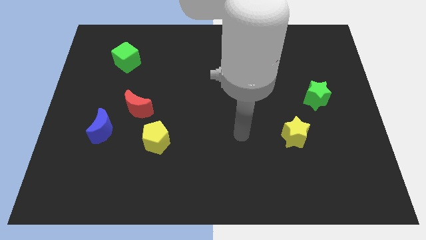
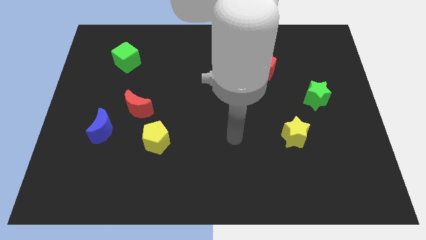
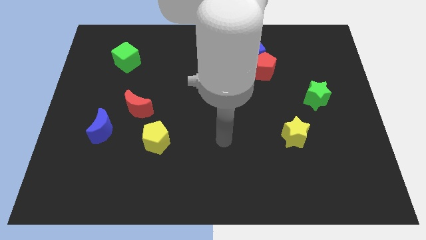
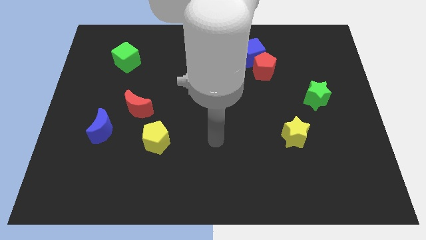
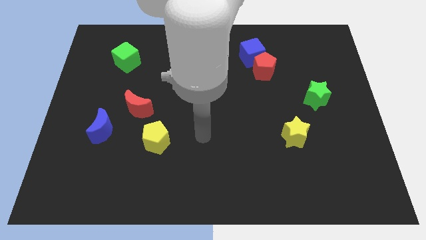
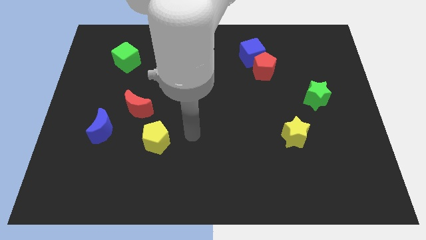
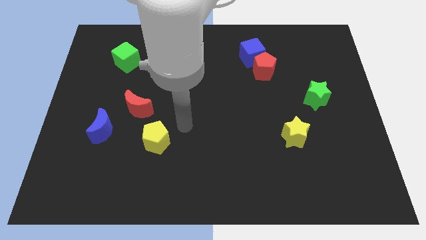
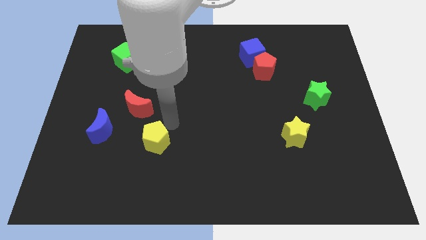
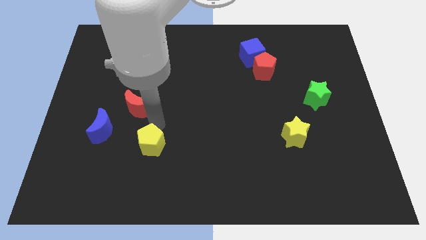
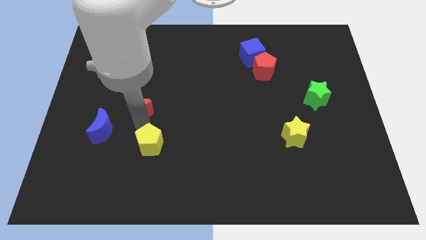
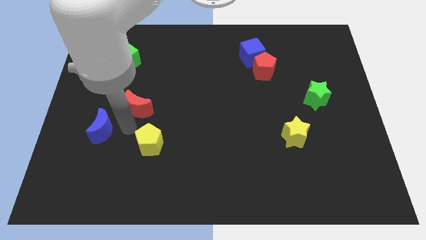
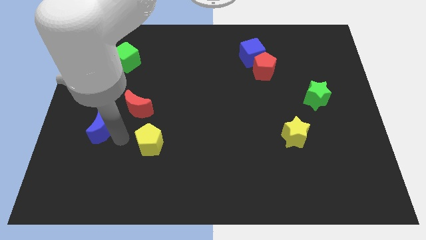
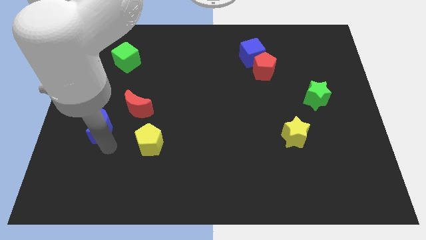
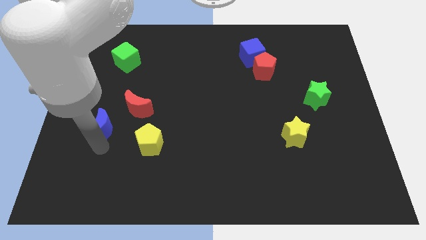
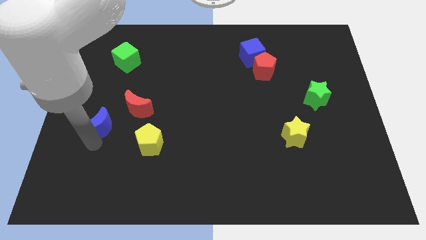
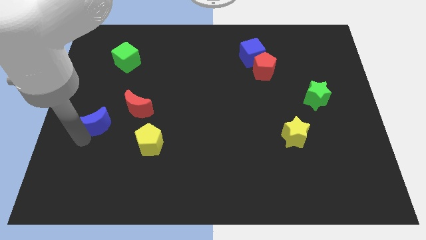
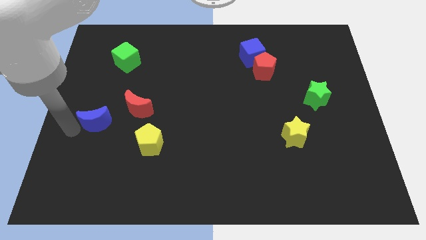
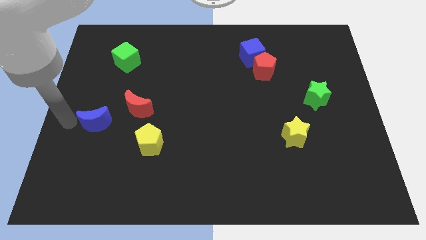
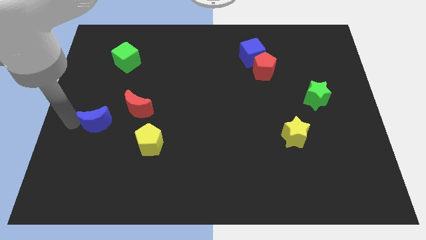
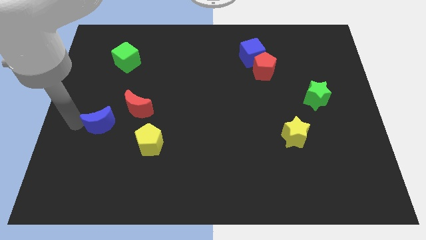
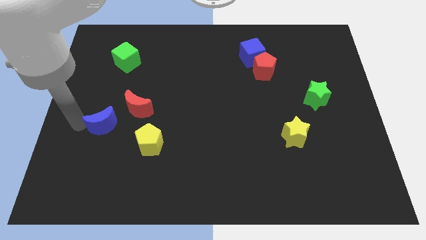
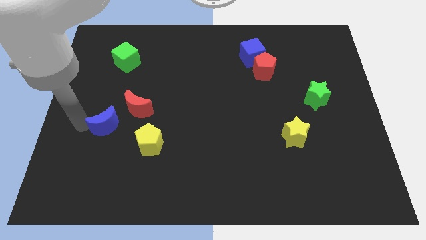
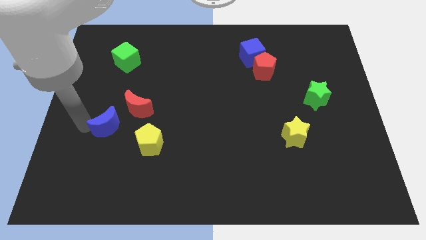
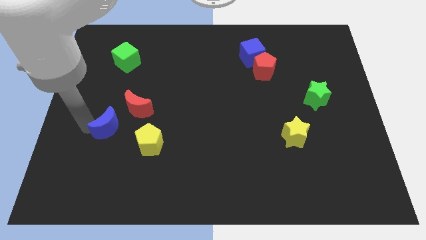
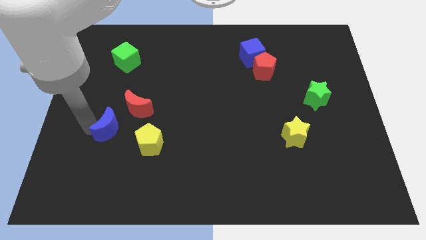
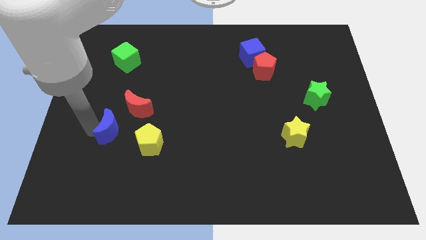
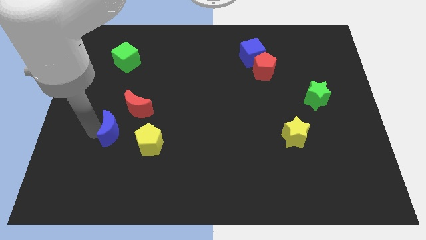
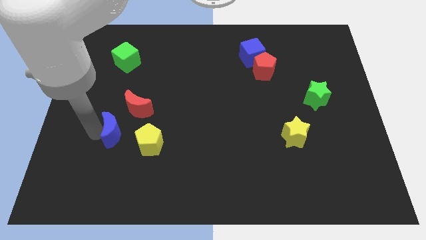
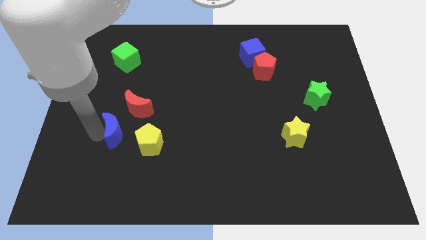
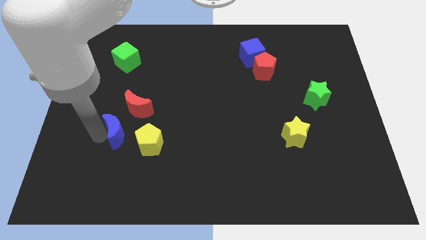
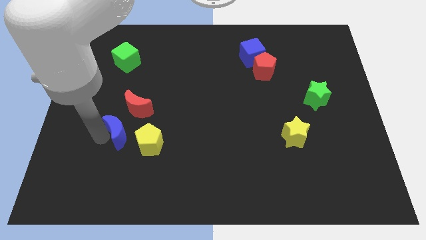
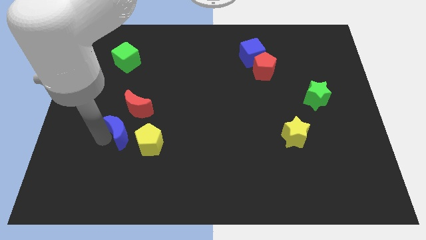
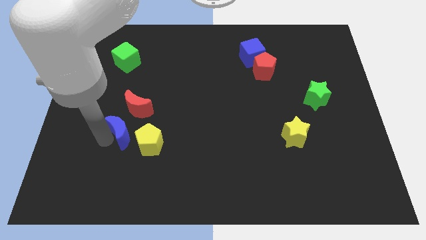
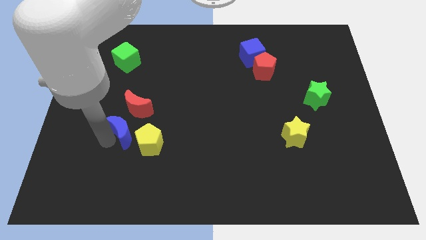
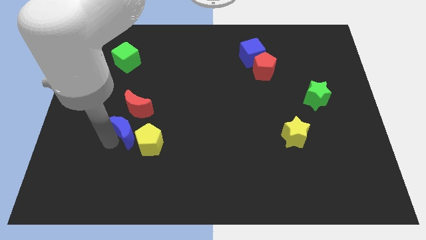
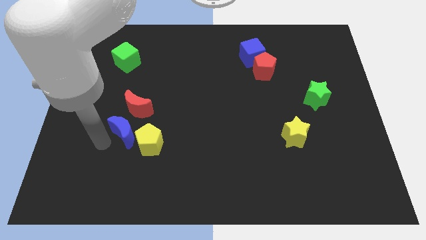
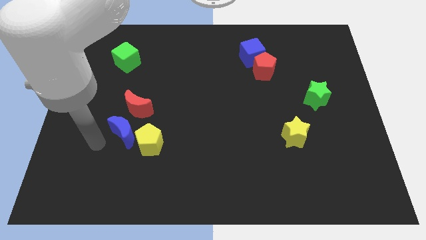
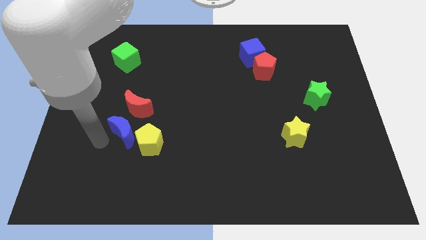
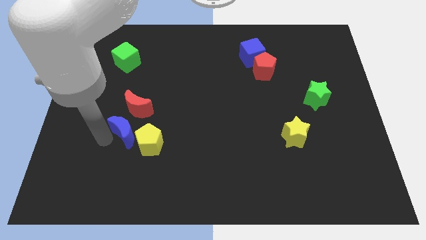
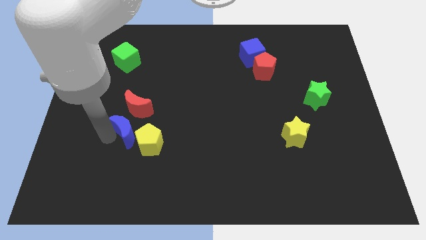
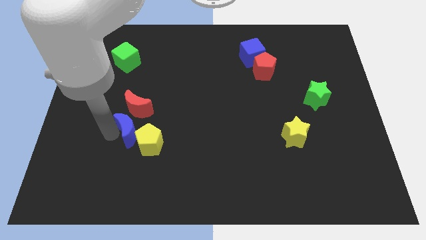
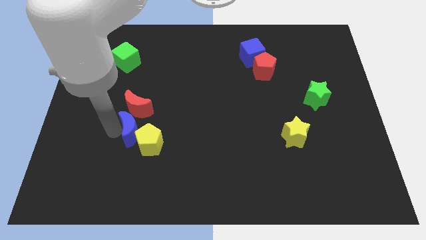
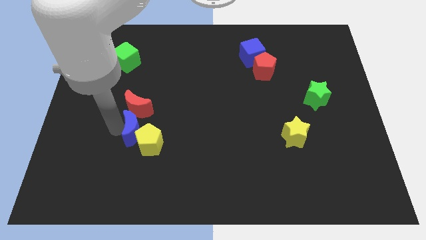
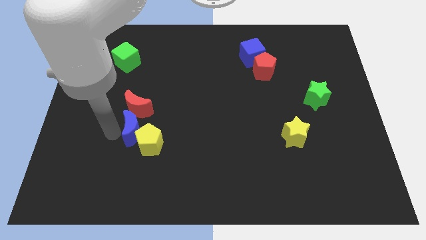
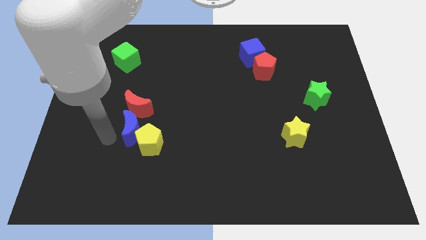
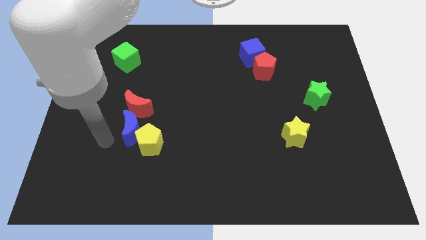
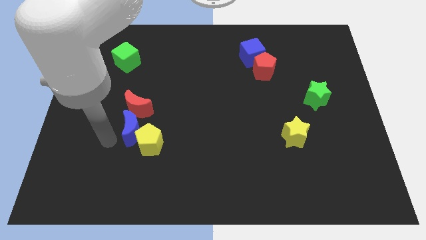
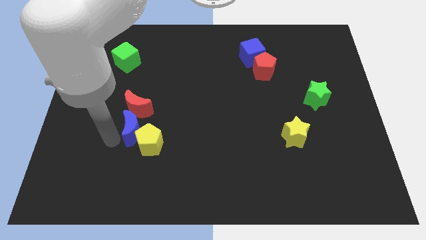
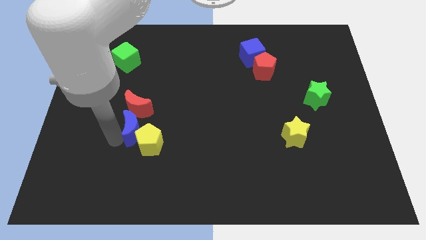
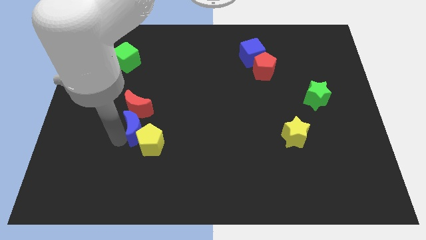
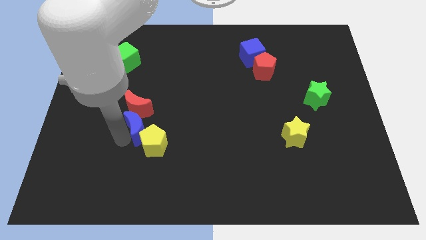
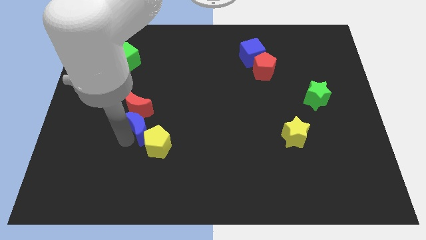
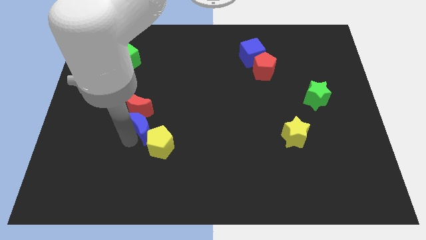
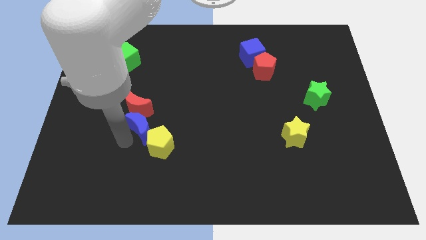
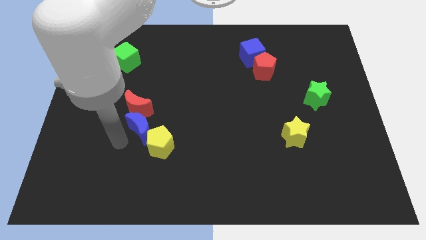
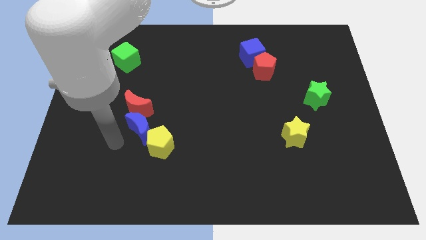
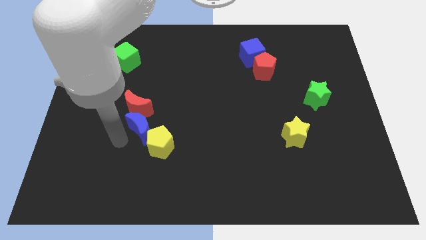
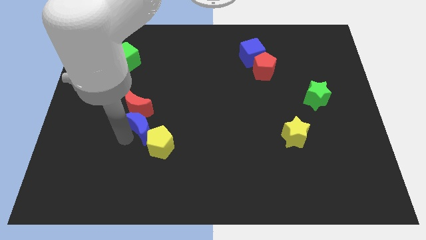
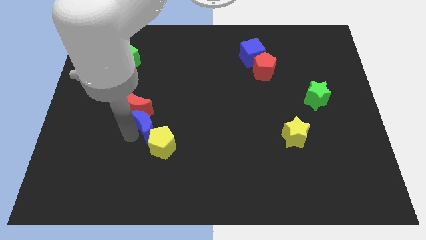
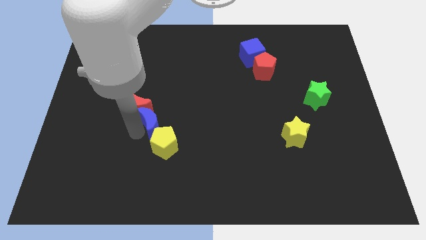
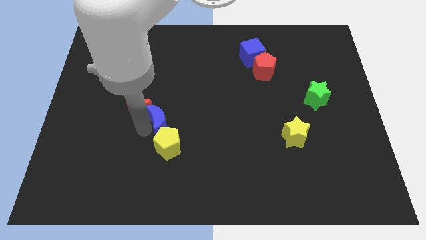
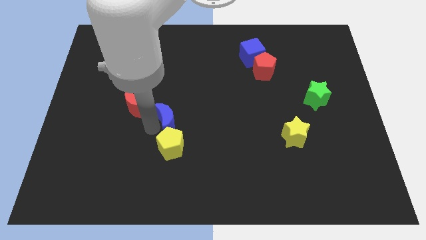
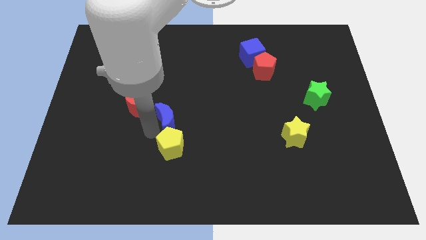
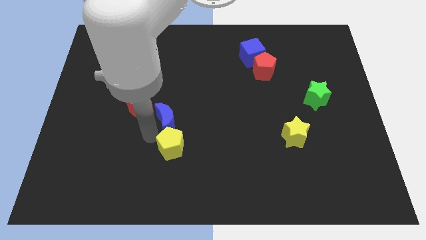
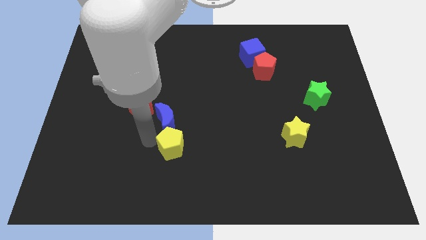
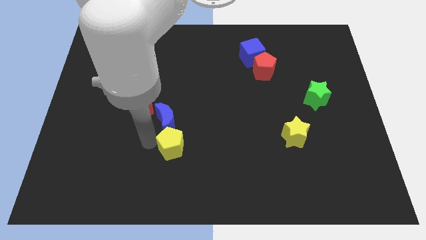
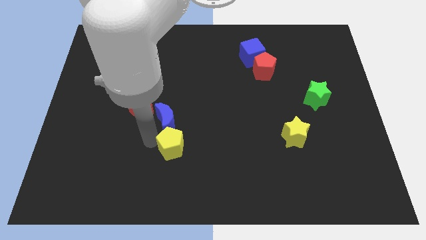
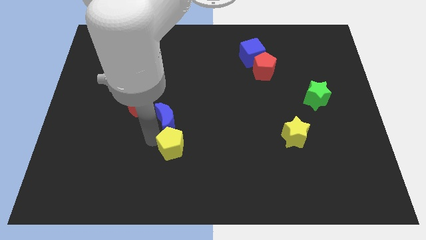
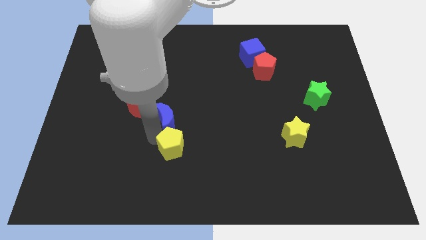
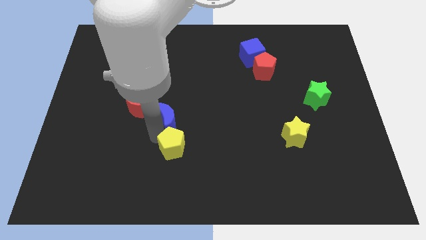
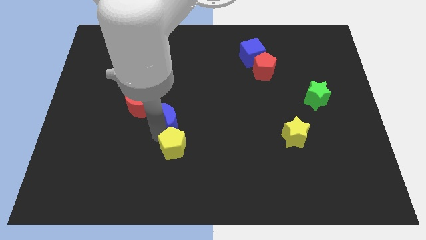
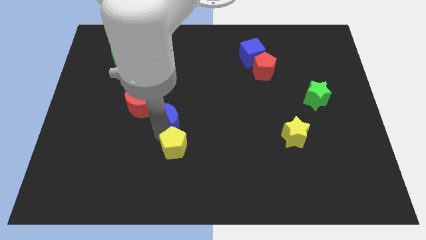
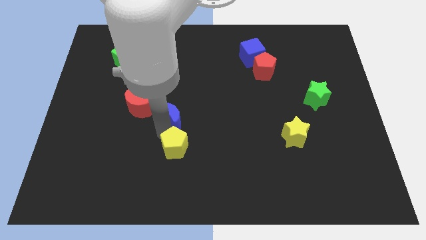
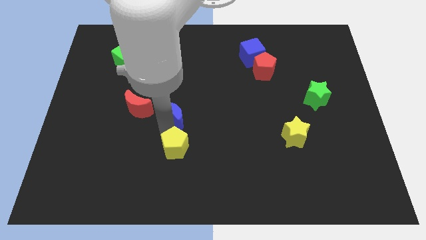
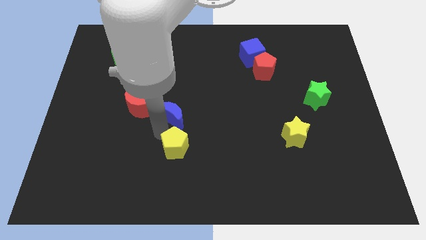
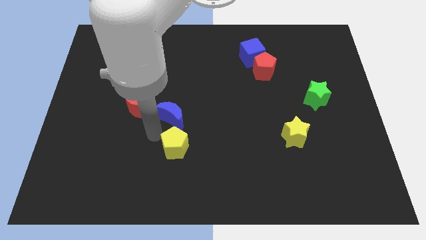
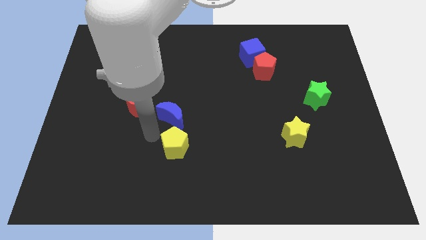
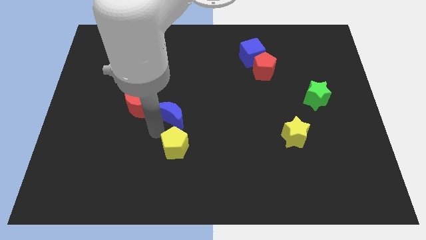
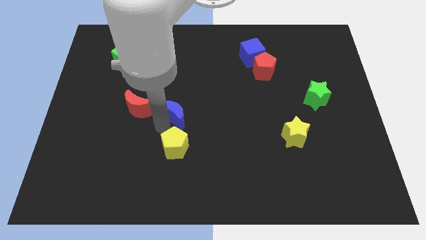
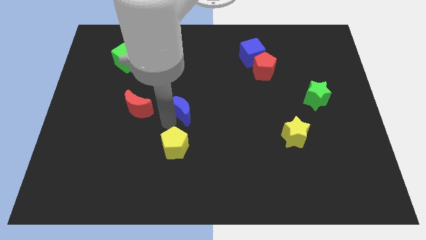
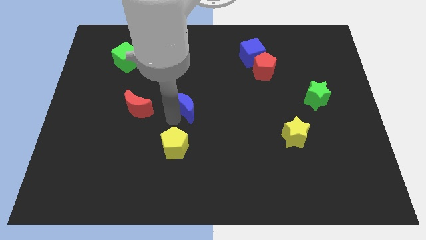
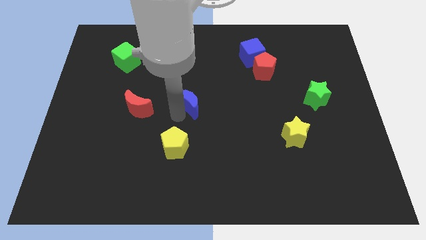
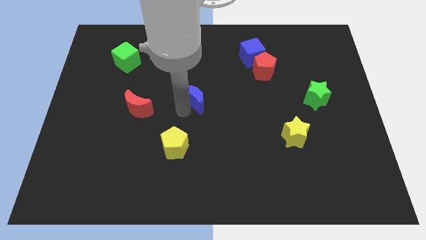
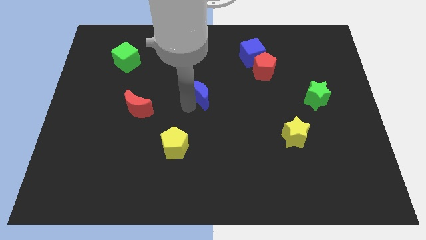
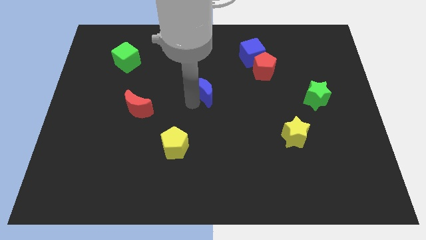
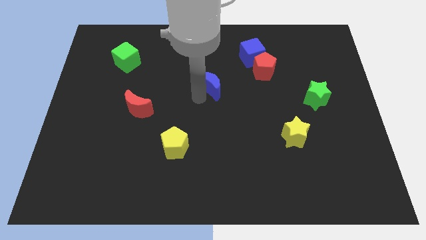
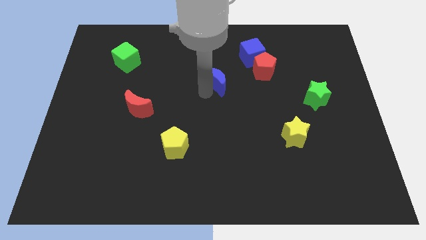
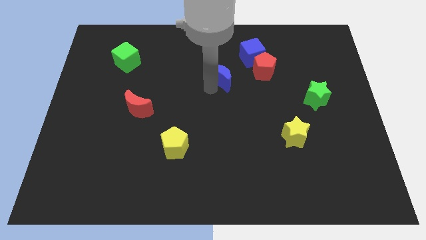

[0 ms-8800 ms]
push the blue moon to the bottom left side of the blue cube
